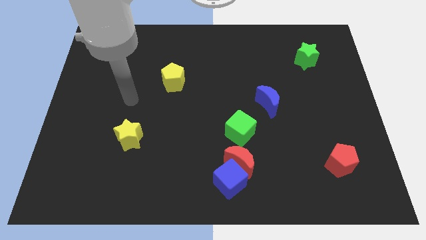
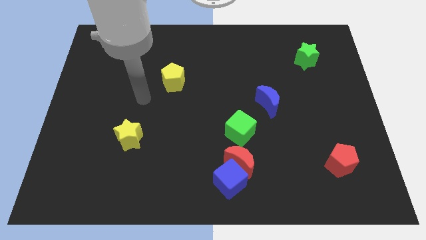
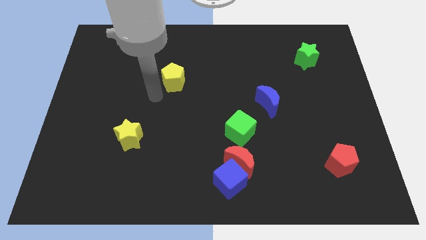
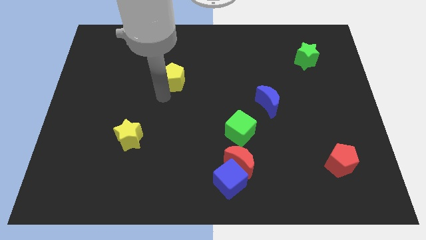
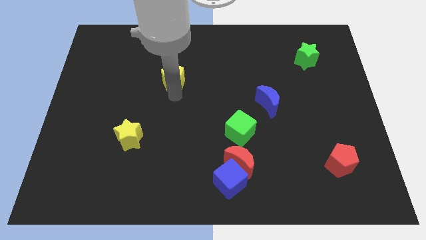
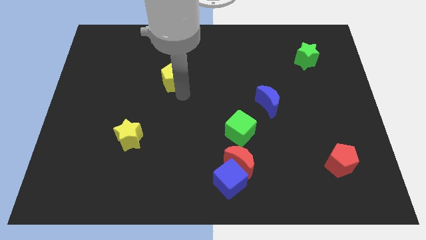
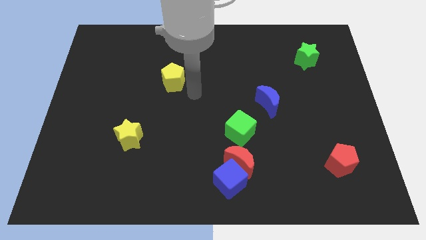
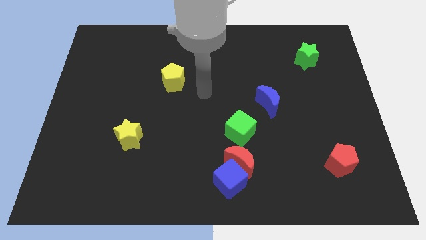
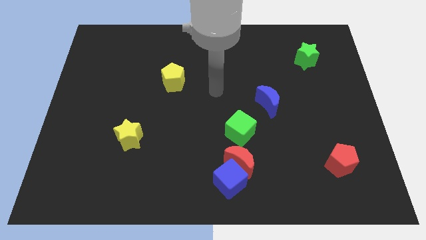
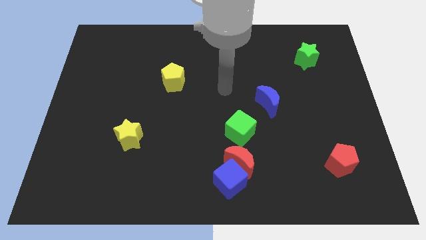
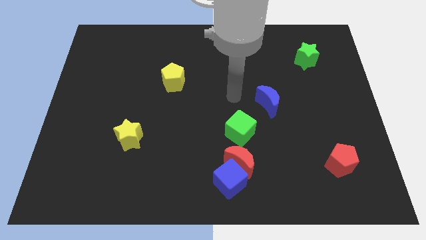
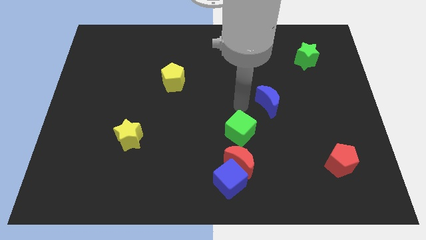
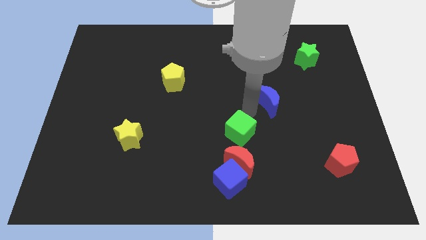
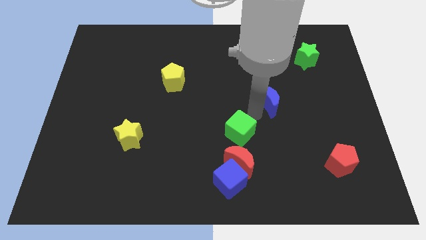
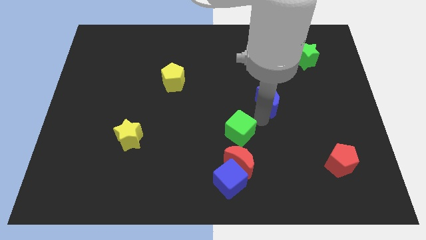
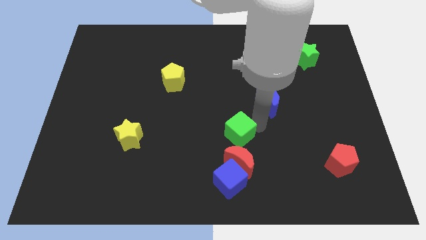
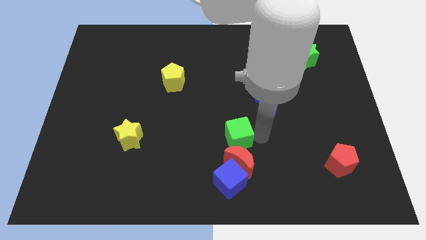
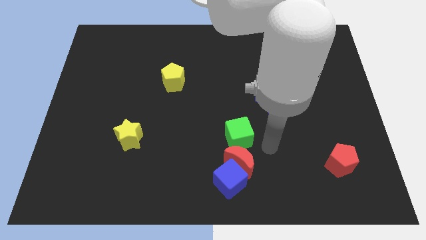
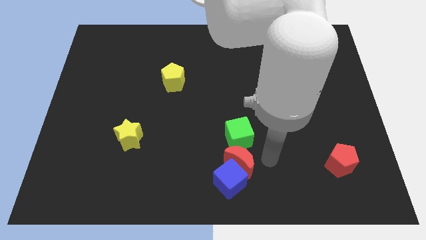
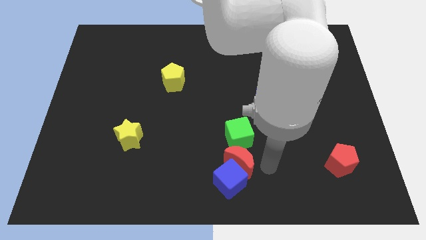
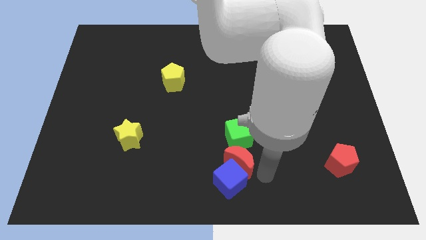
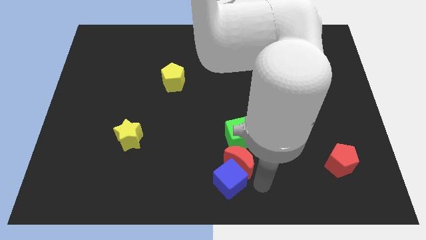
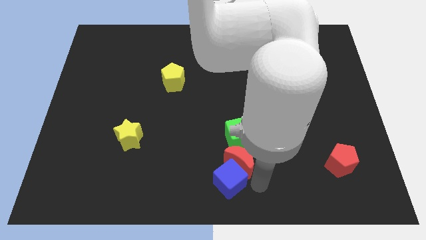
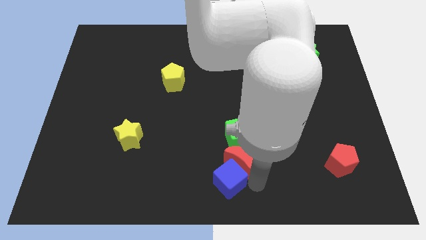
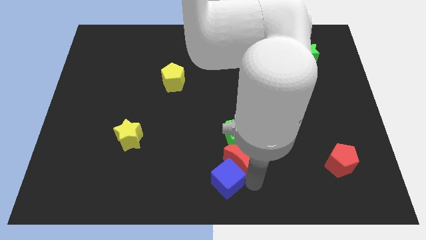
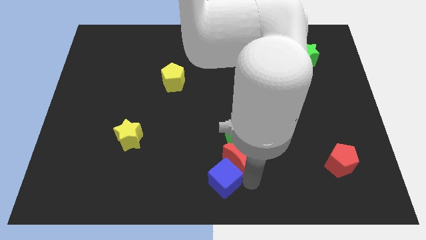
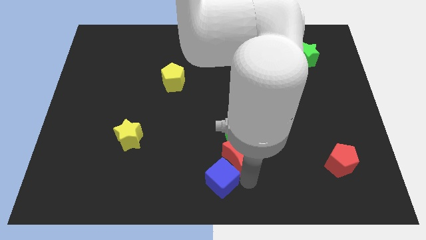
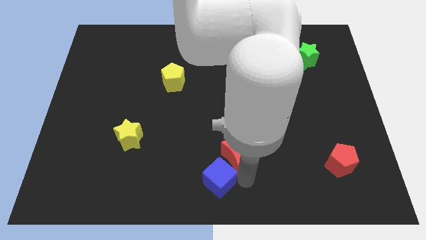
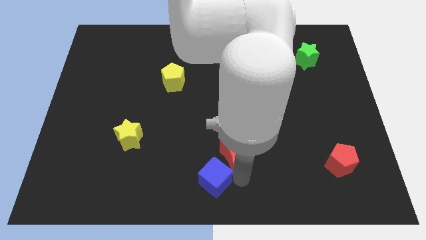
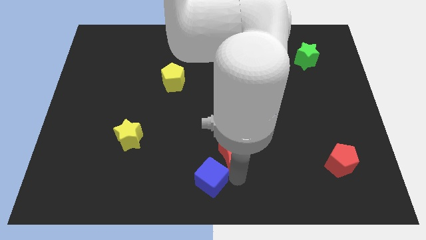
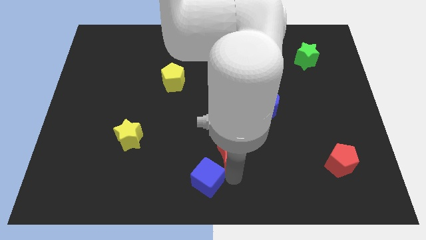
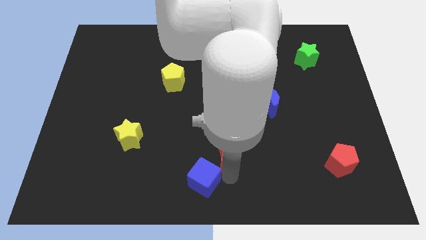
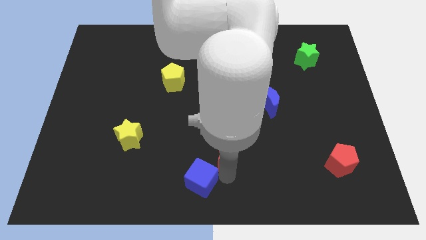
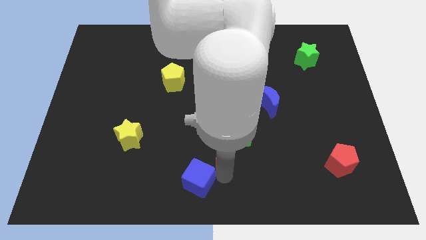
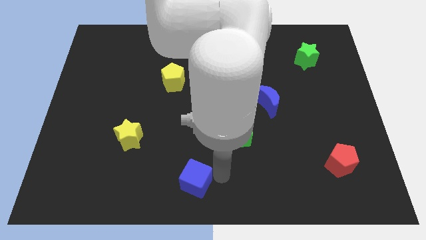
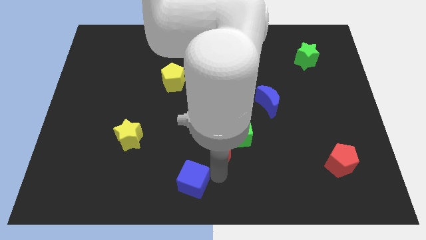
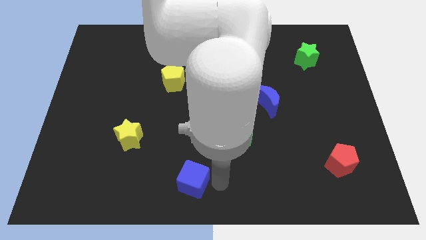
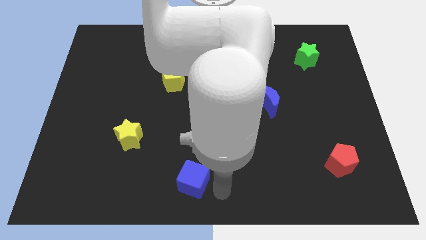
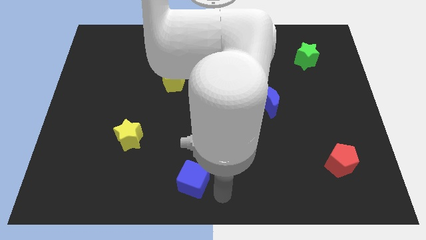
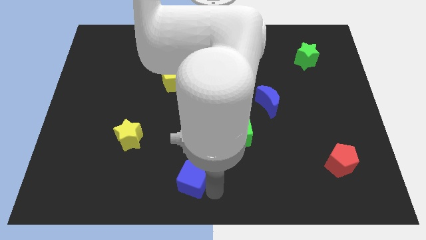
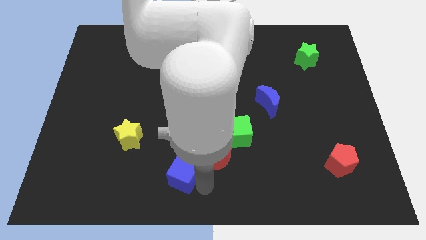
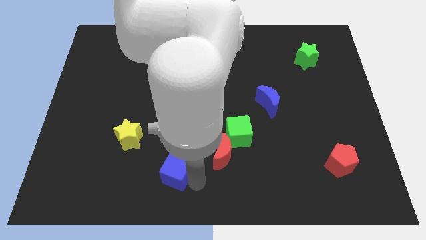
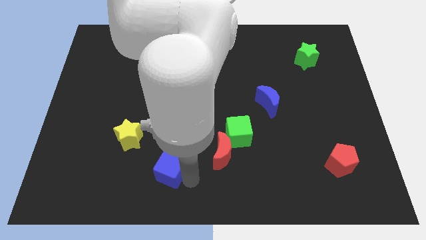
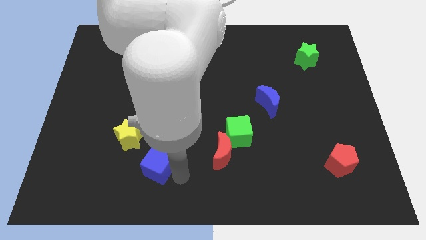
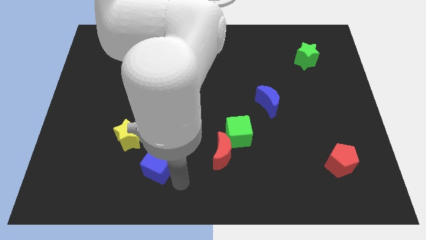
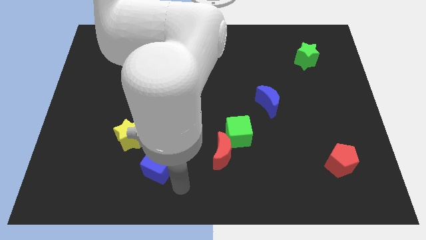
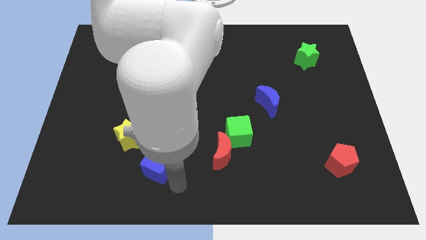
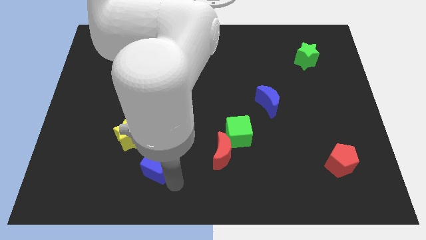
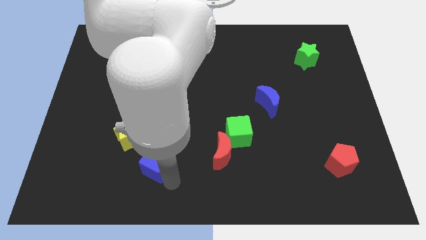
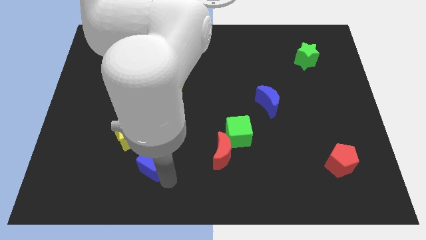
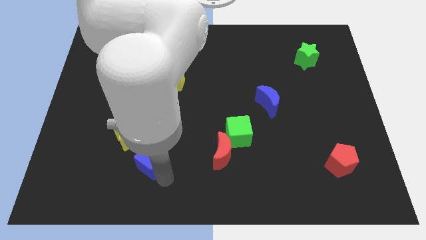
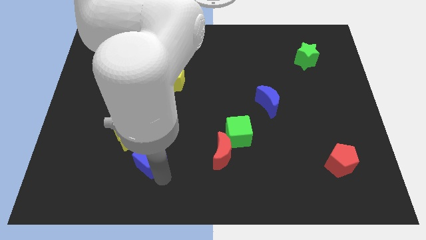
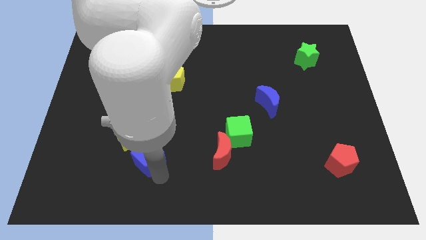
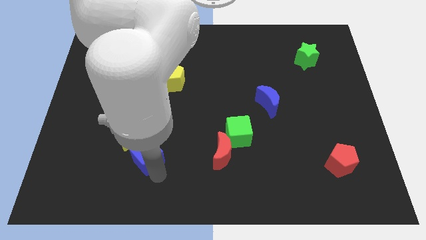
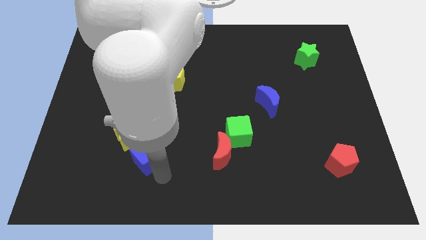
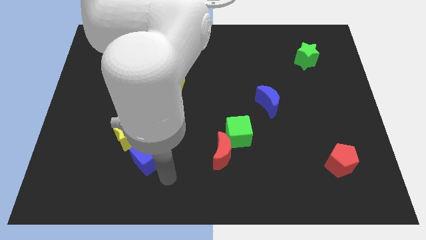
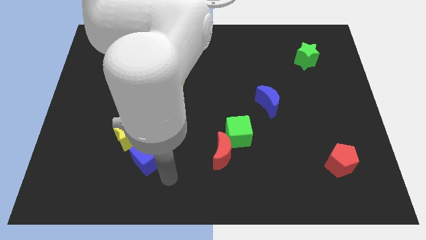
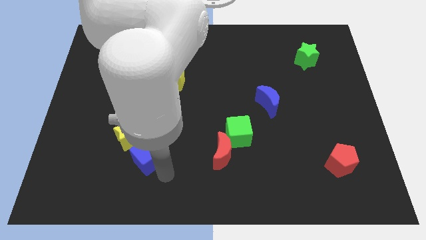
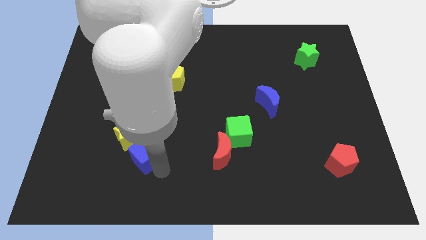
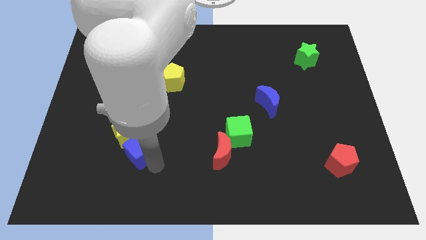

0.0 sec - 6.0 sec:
put the blue cube close to the yellow star

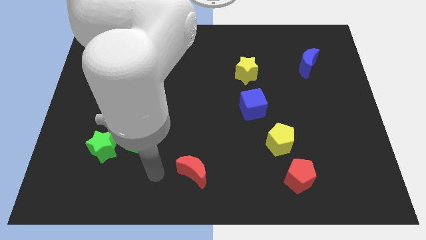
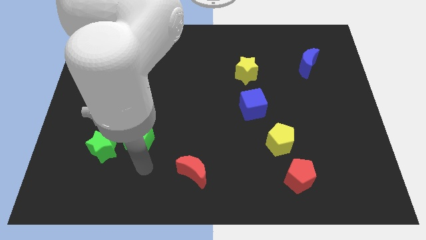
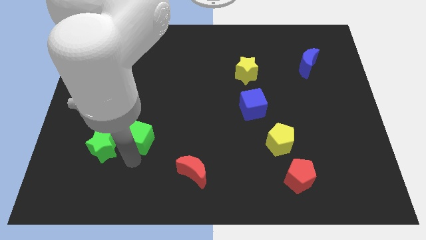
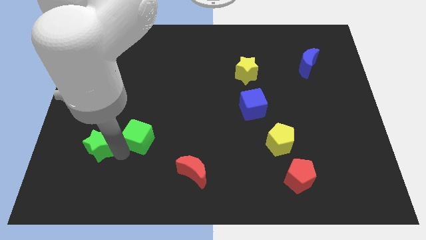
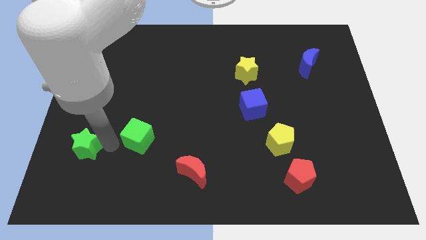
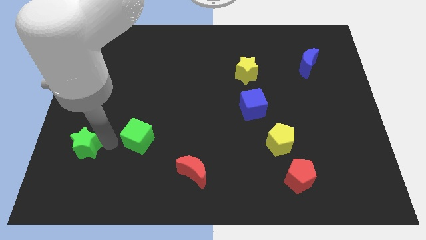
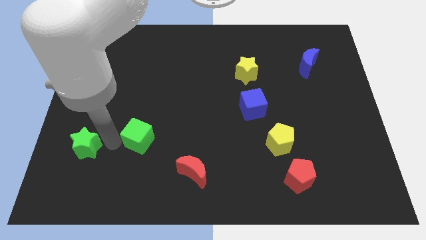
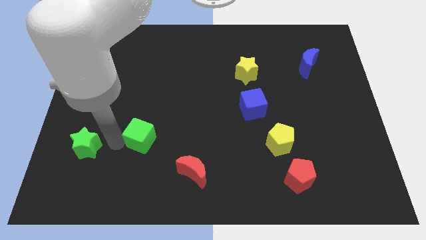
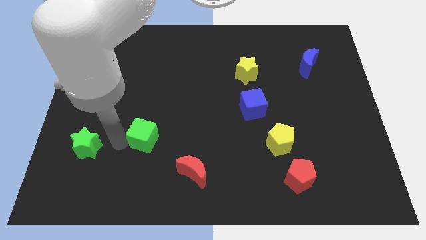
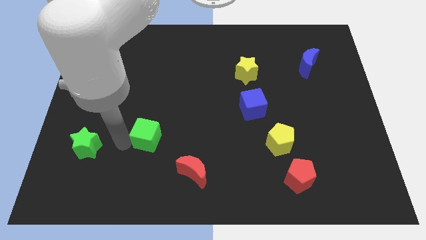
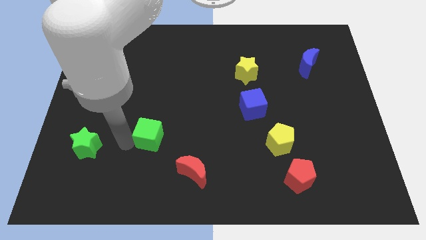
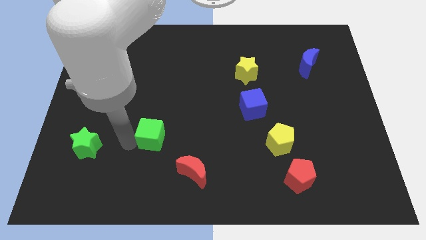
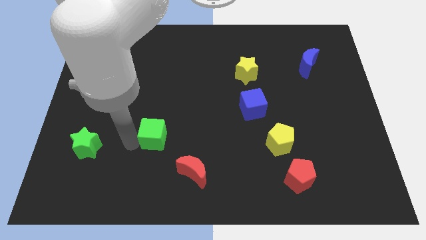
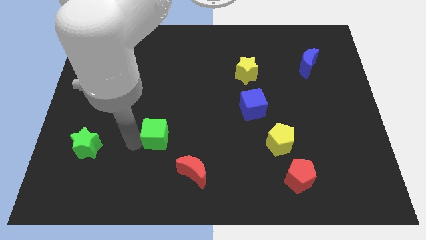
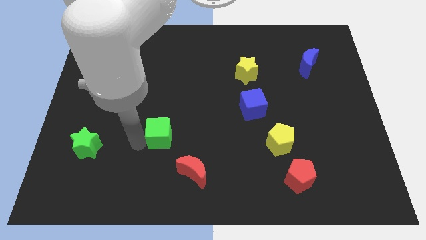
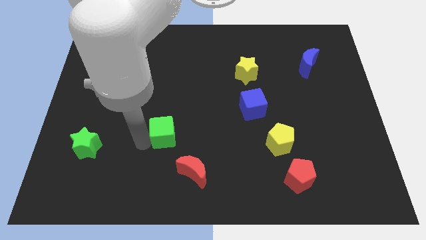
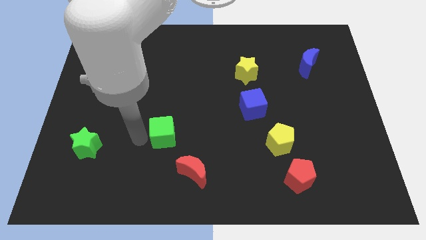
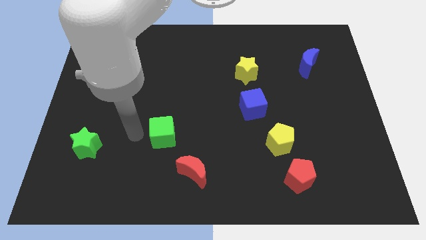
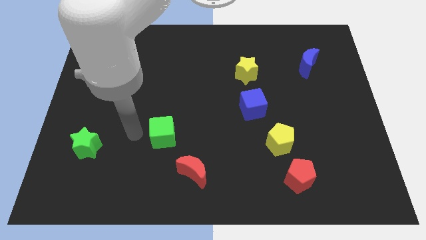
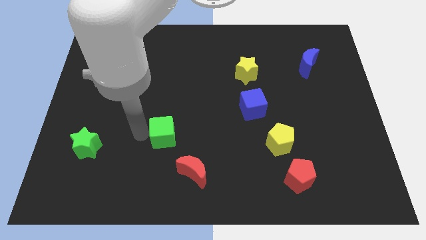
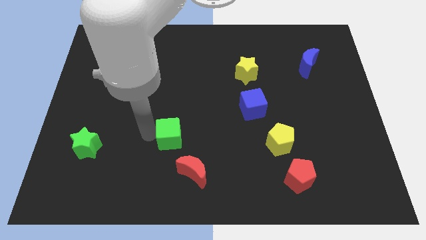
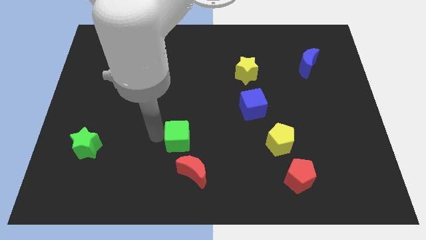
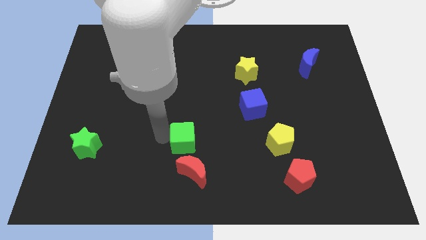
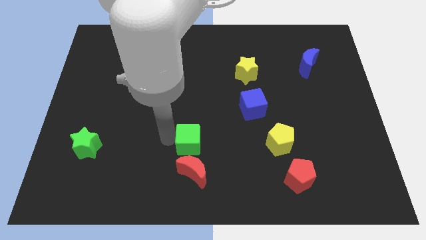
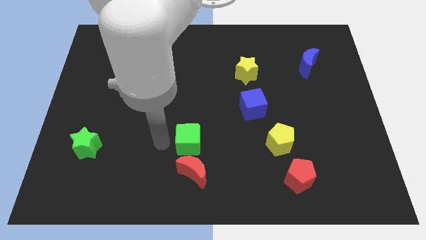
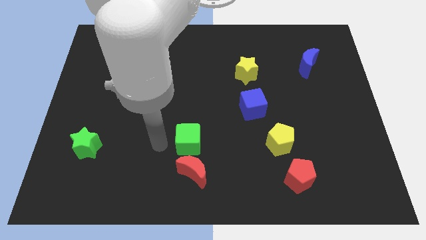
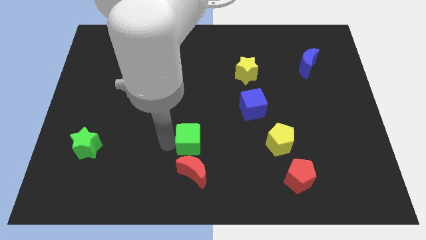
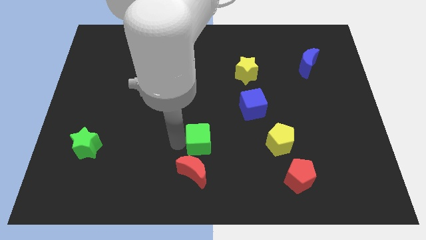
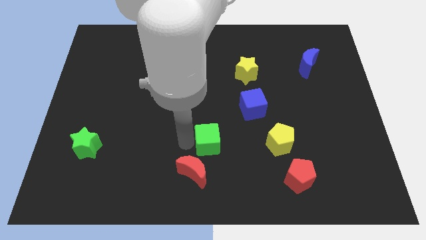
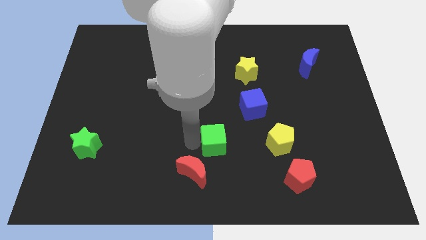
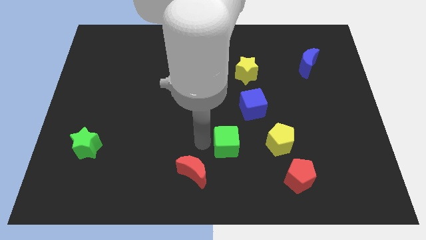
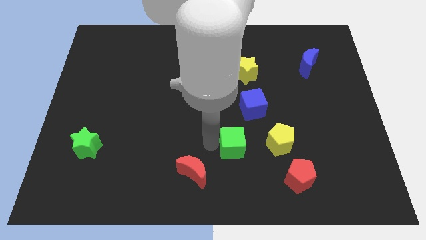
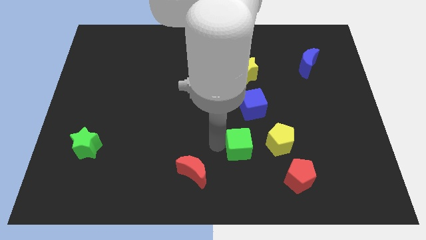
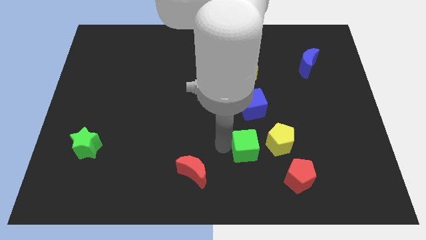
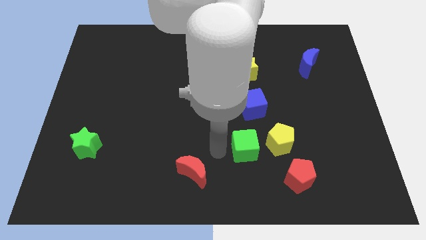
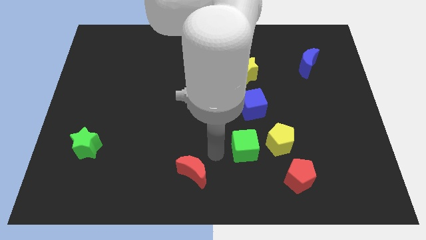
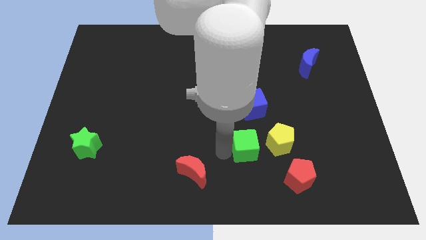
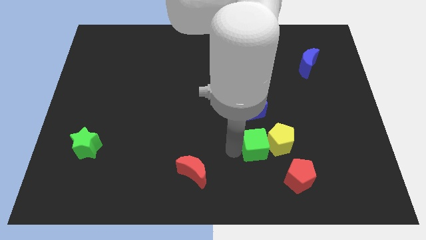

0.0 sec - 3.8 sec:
push the green cube next to the yellow pentagon
